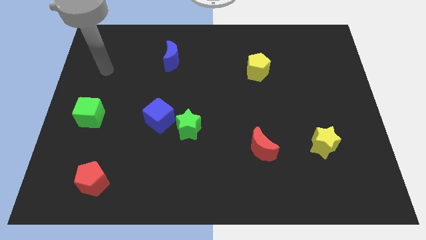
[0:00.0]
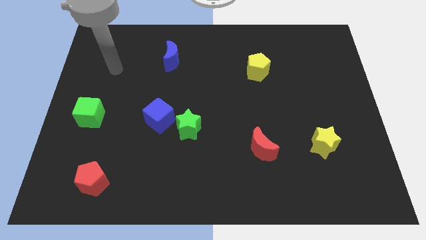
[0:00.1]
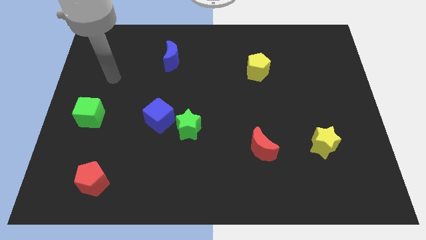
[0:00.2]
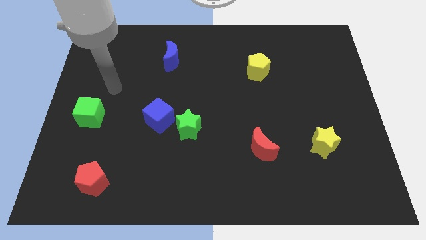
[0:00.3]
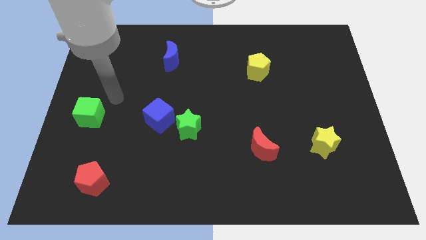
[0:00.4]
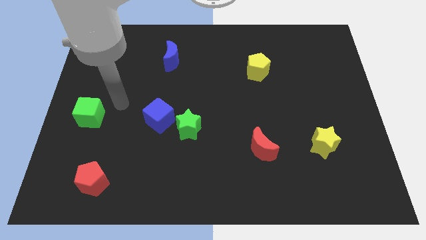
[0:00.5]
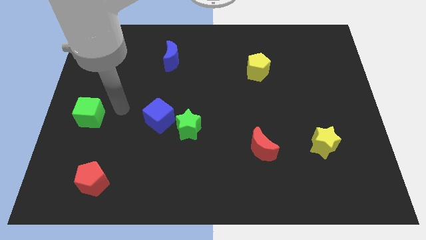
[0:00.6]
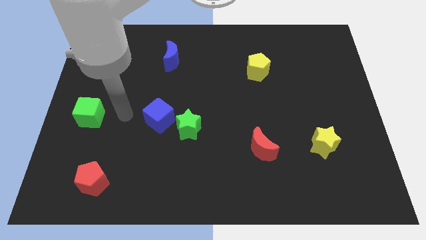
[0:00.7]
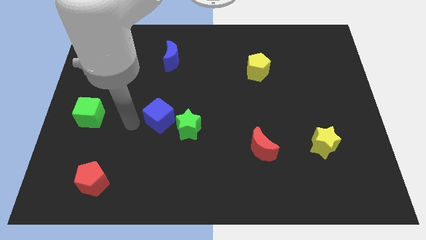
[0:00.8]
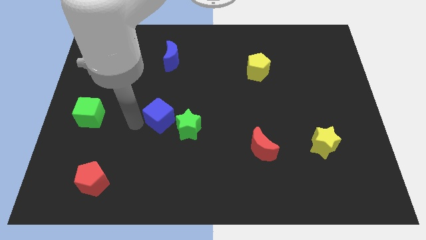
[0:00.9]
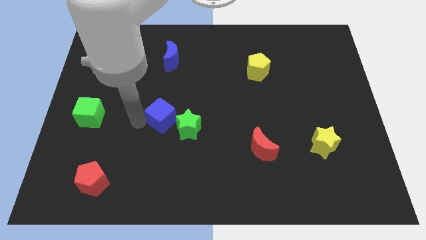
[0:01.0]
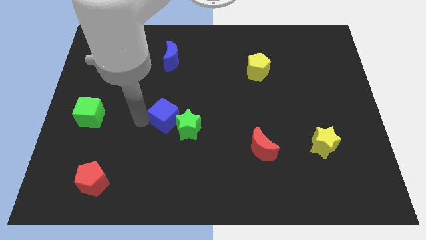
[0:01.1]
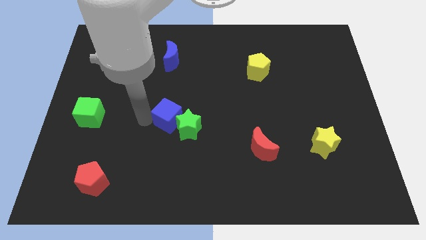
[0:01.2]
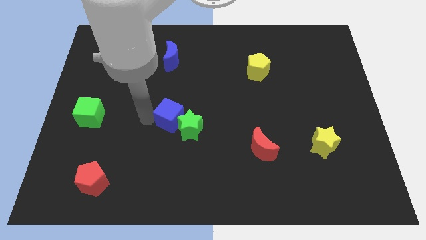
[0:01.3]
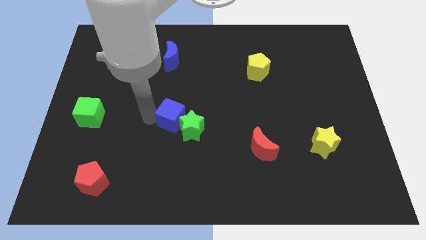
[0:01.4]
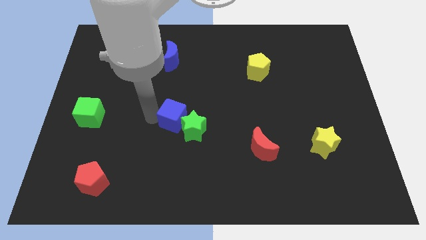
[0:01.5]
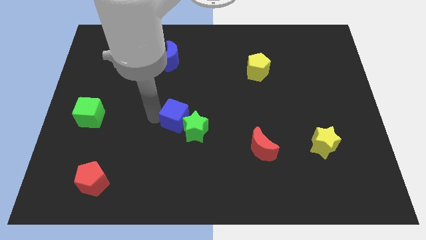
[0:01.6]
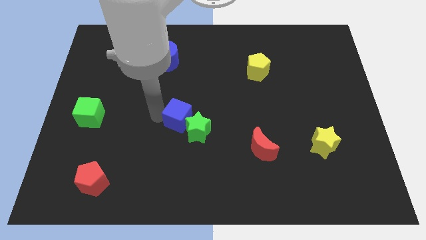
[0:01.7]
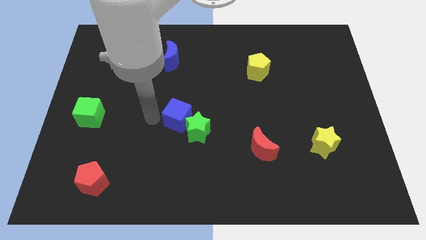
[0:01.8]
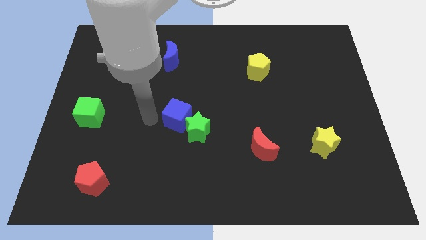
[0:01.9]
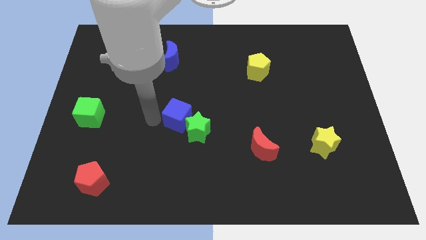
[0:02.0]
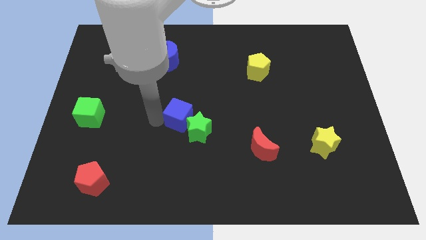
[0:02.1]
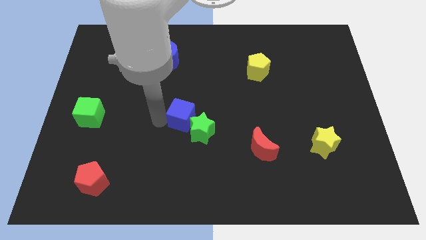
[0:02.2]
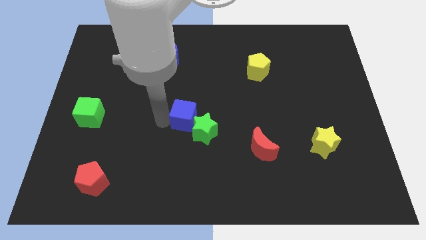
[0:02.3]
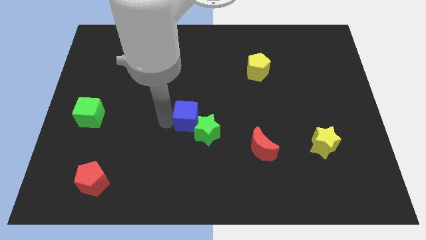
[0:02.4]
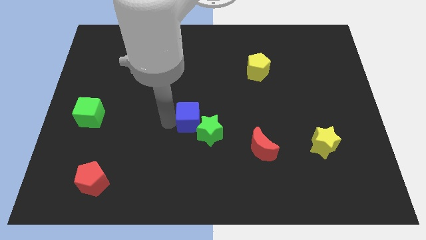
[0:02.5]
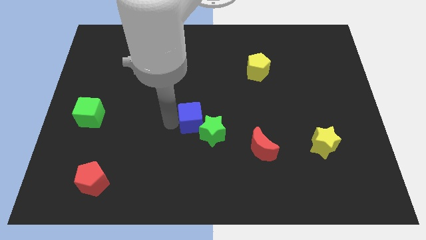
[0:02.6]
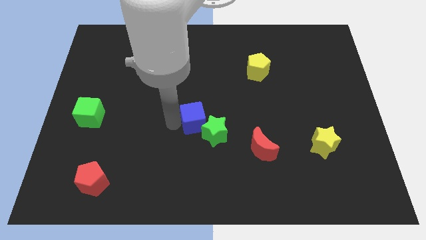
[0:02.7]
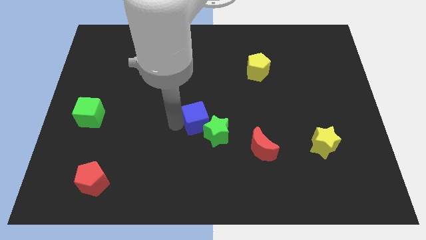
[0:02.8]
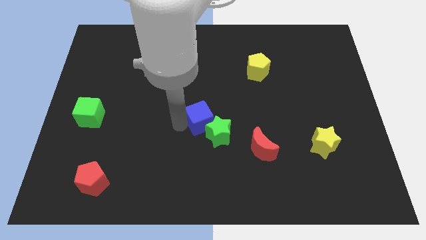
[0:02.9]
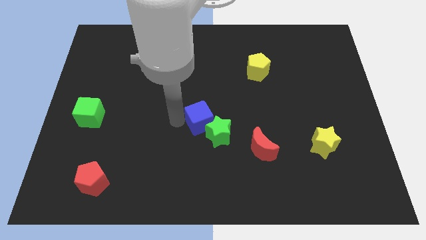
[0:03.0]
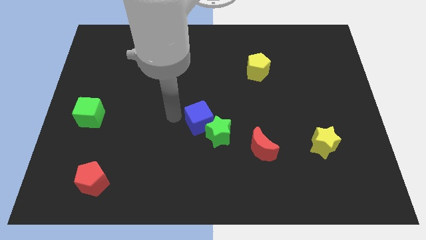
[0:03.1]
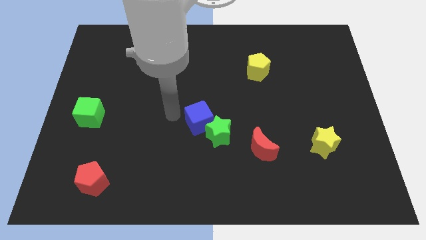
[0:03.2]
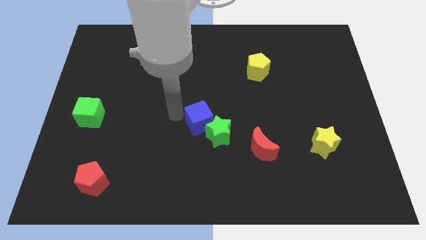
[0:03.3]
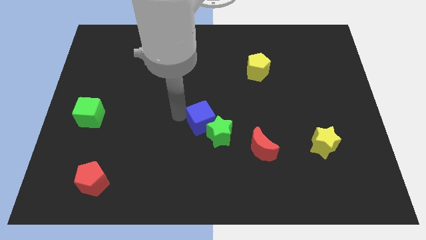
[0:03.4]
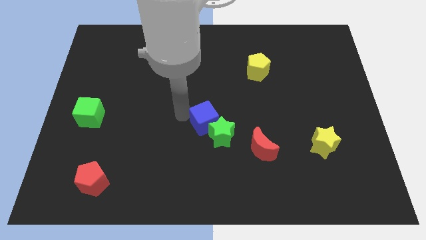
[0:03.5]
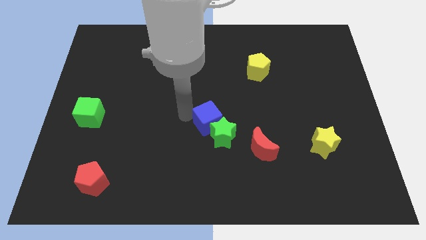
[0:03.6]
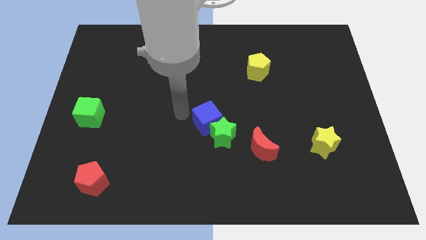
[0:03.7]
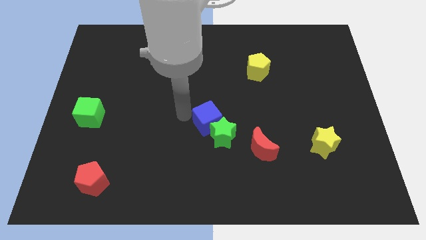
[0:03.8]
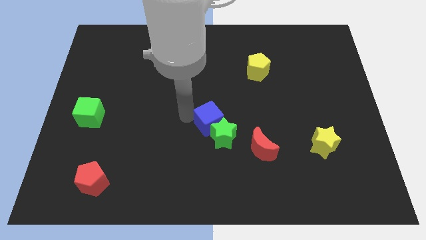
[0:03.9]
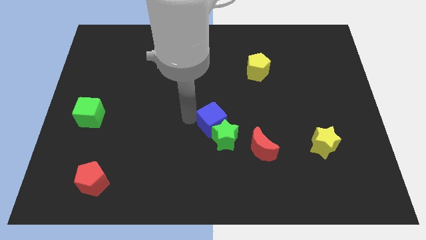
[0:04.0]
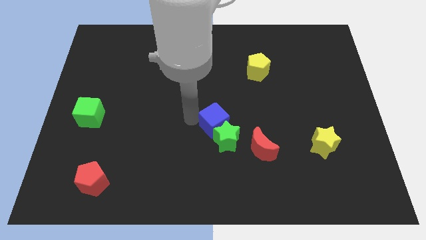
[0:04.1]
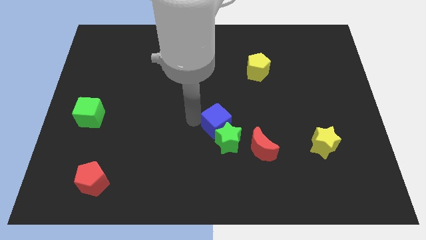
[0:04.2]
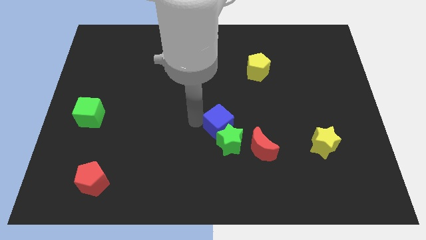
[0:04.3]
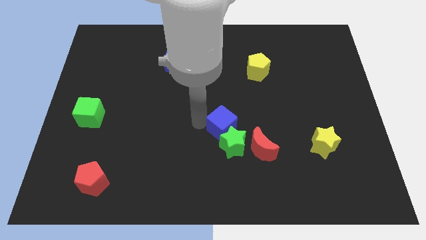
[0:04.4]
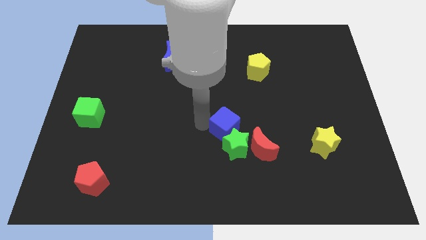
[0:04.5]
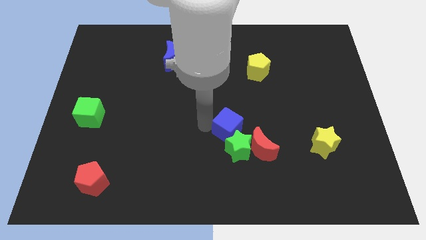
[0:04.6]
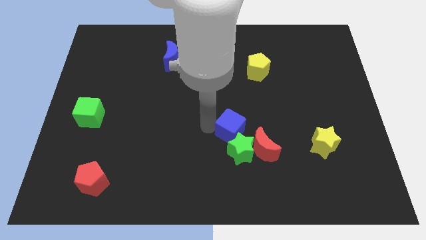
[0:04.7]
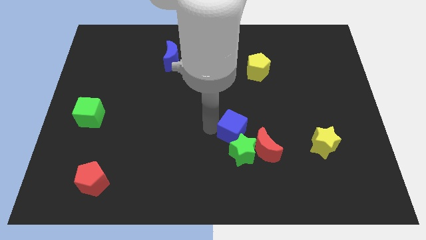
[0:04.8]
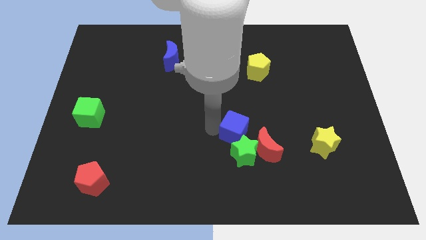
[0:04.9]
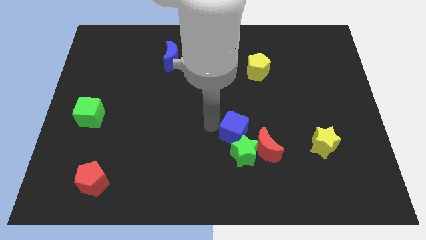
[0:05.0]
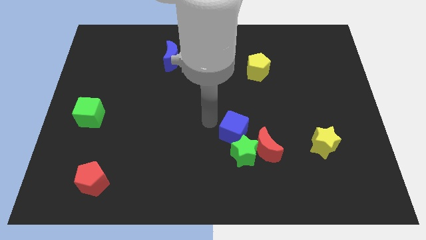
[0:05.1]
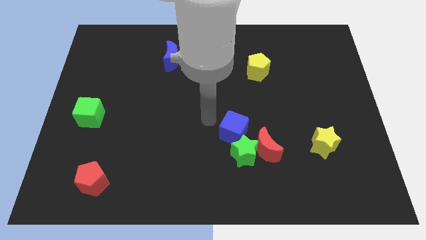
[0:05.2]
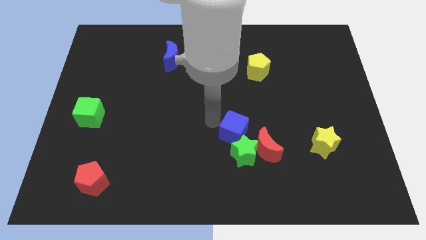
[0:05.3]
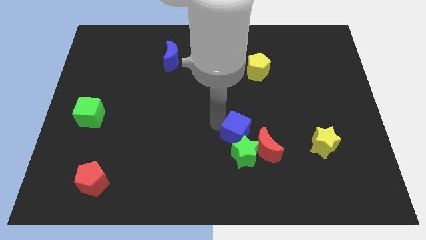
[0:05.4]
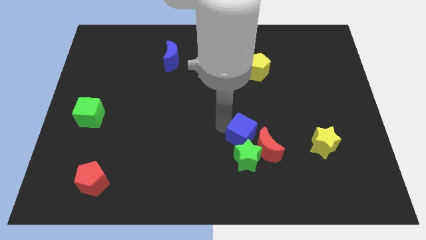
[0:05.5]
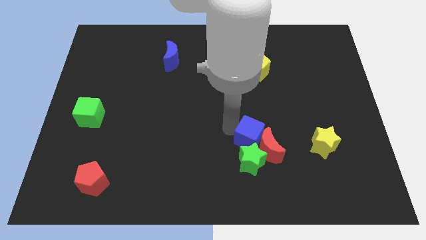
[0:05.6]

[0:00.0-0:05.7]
push the blue cube to the red moon

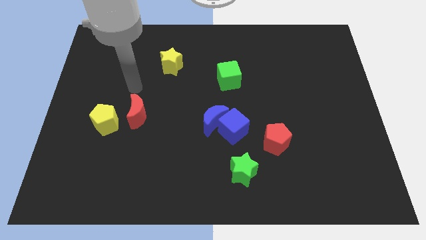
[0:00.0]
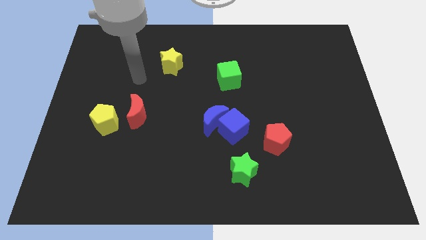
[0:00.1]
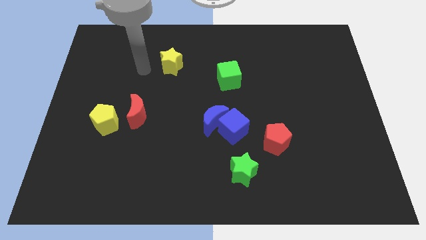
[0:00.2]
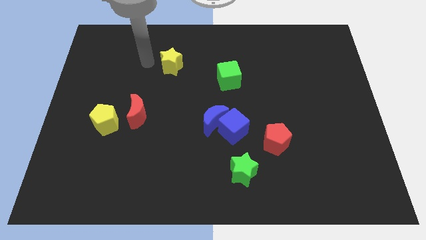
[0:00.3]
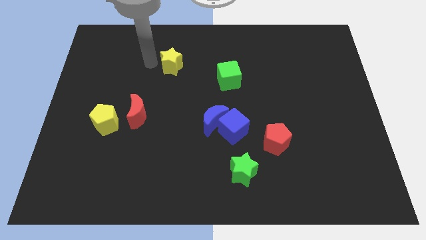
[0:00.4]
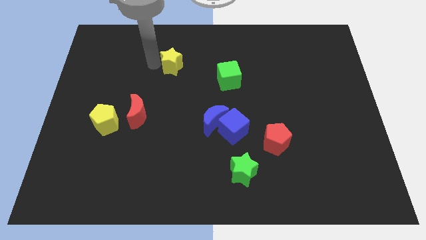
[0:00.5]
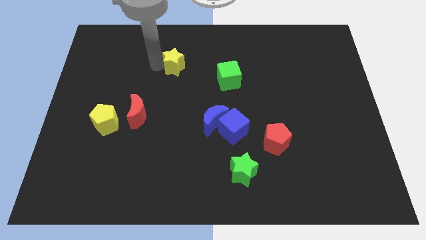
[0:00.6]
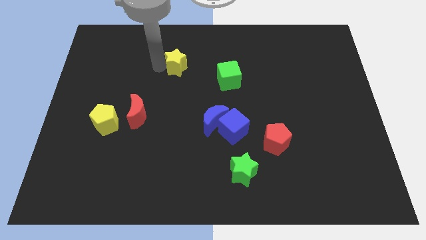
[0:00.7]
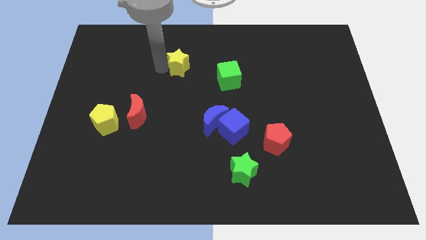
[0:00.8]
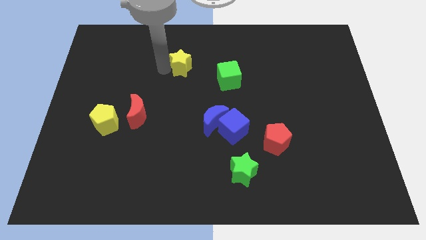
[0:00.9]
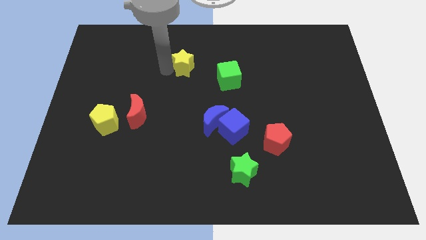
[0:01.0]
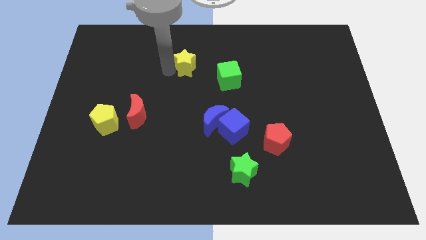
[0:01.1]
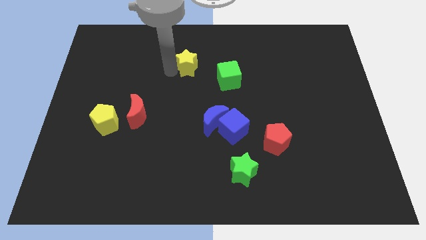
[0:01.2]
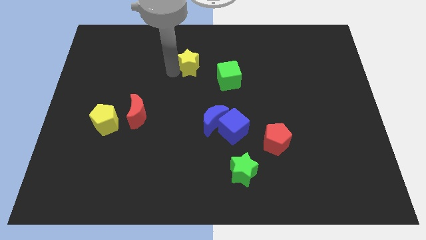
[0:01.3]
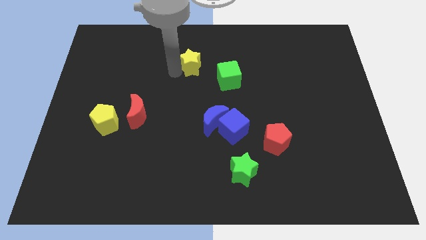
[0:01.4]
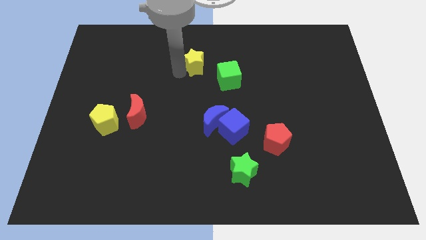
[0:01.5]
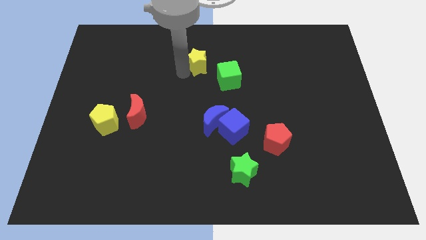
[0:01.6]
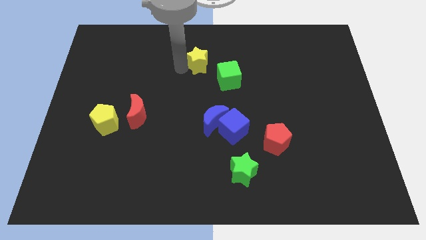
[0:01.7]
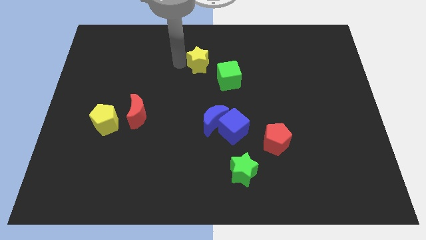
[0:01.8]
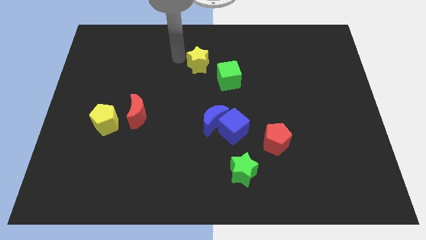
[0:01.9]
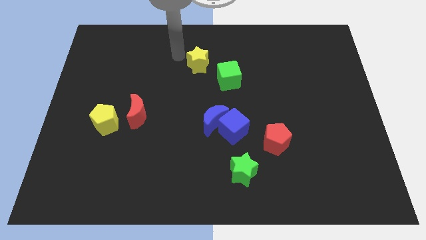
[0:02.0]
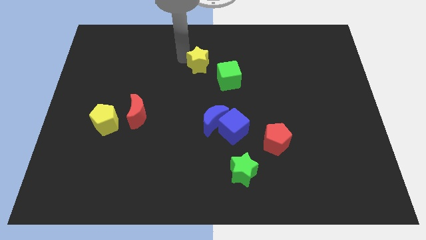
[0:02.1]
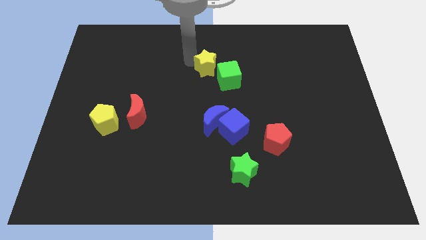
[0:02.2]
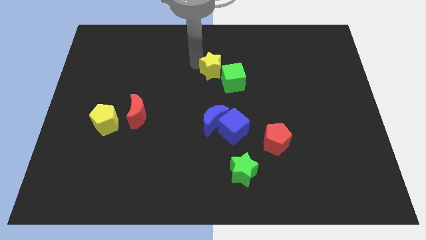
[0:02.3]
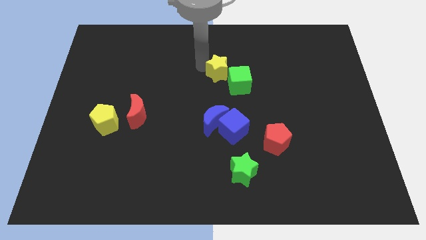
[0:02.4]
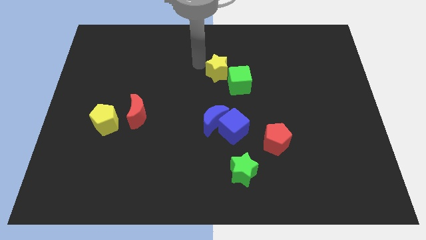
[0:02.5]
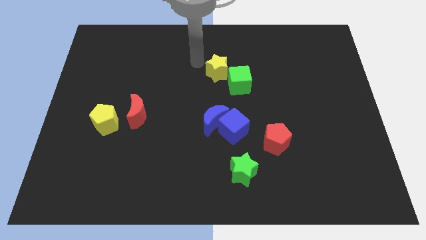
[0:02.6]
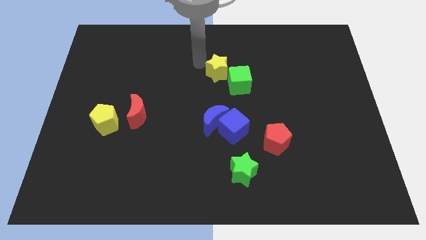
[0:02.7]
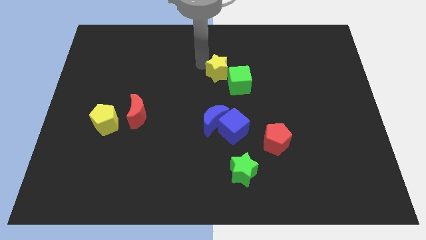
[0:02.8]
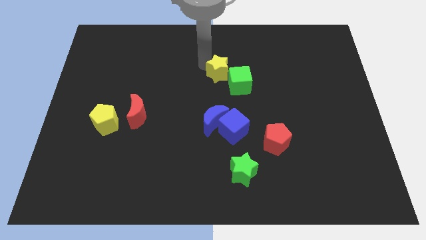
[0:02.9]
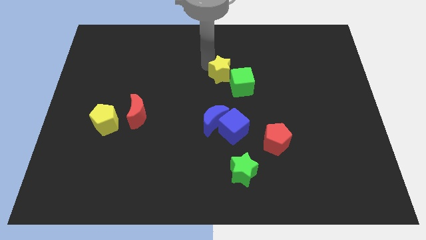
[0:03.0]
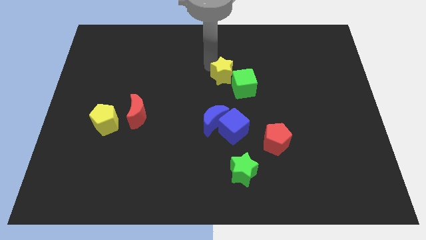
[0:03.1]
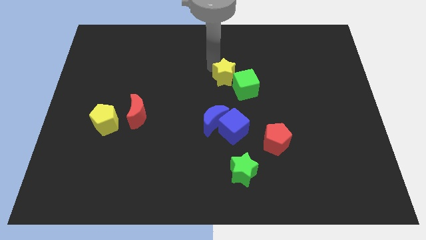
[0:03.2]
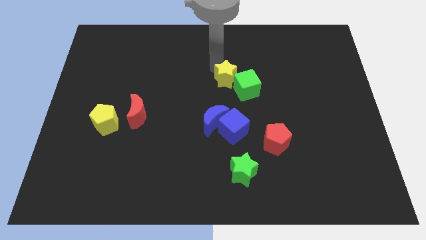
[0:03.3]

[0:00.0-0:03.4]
slide the yellow star towards the green cube
